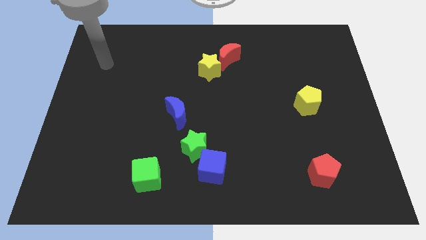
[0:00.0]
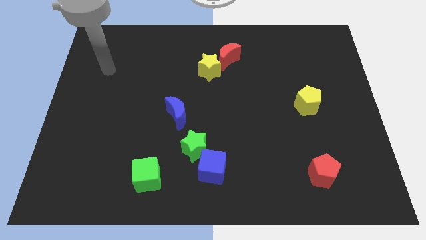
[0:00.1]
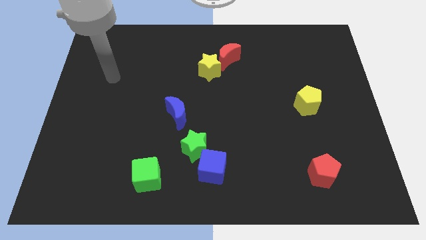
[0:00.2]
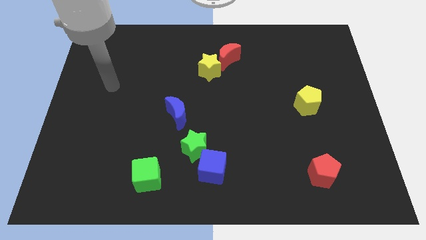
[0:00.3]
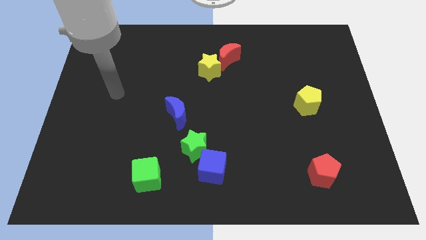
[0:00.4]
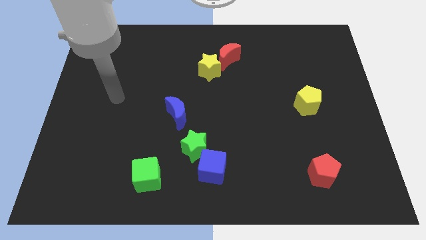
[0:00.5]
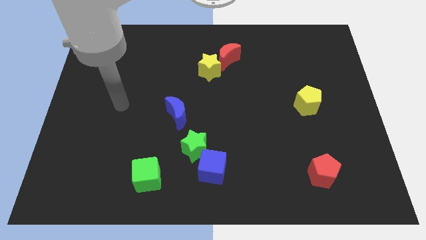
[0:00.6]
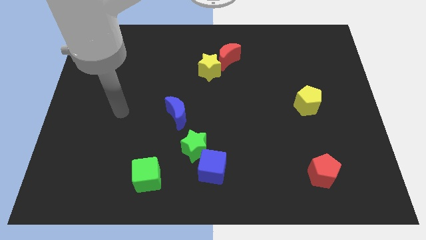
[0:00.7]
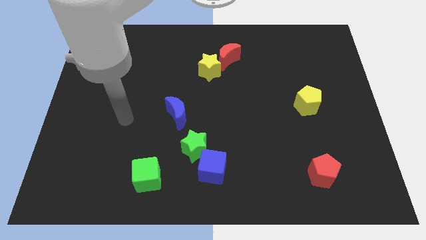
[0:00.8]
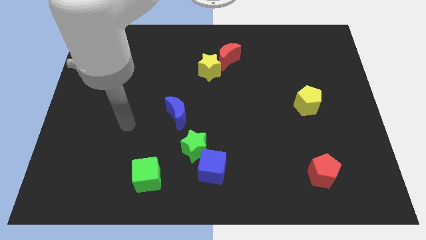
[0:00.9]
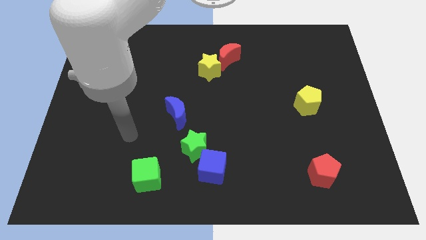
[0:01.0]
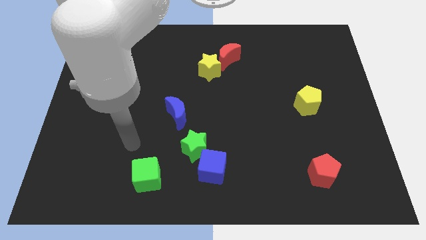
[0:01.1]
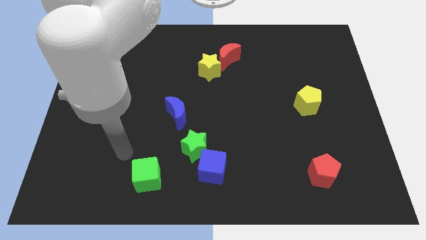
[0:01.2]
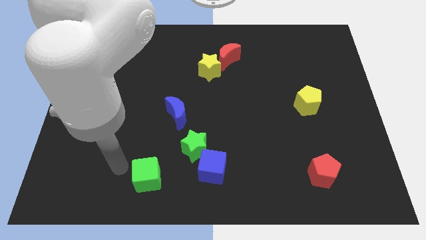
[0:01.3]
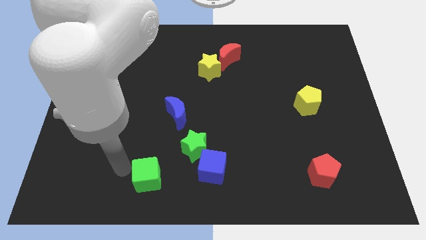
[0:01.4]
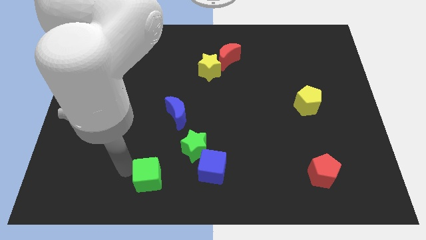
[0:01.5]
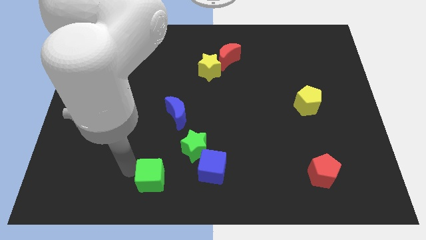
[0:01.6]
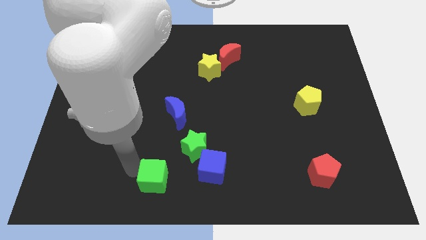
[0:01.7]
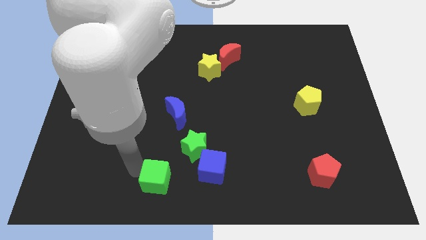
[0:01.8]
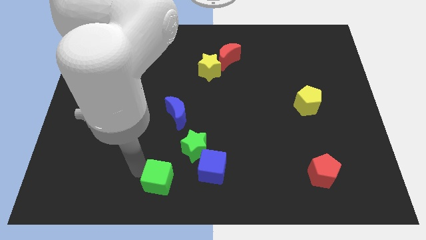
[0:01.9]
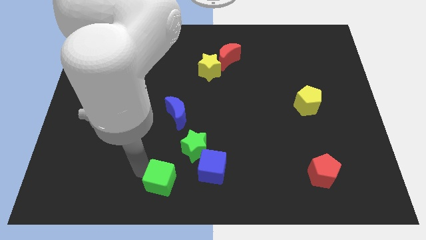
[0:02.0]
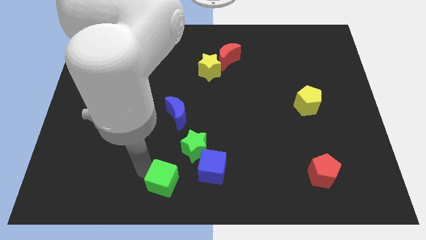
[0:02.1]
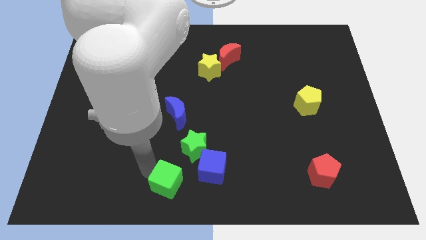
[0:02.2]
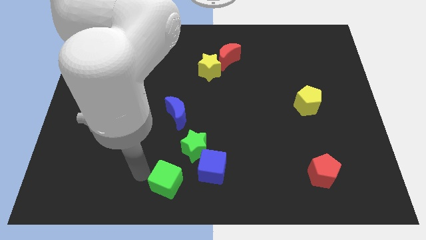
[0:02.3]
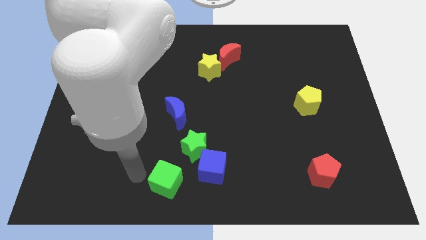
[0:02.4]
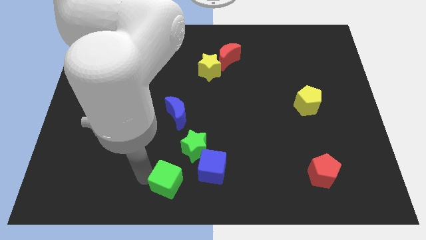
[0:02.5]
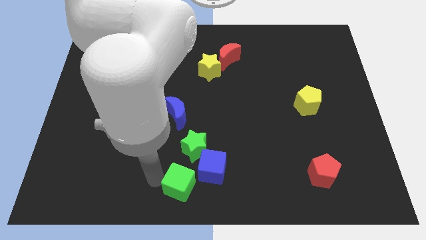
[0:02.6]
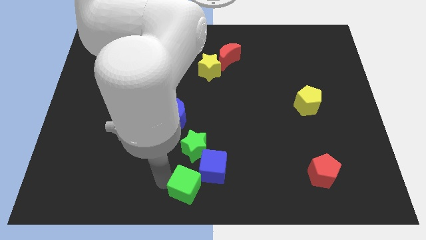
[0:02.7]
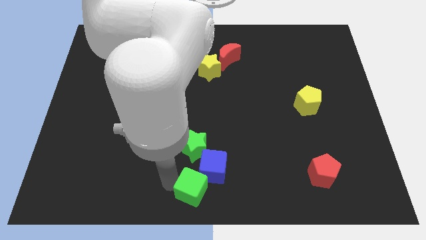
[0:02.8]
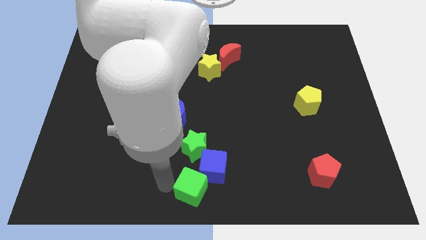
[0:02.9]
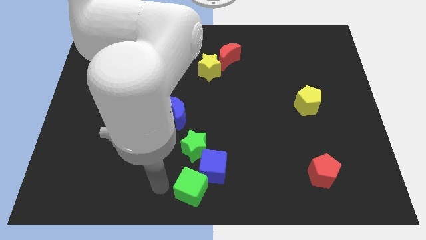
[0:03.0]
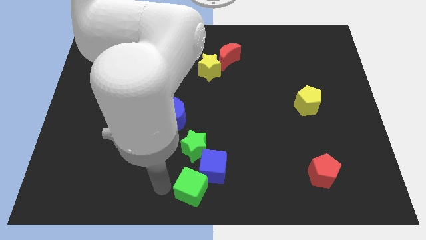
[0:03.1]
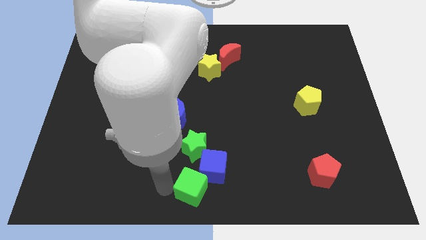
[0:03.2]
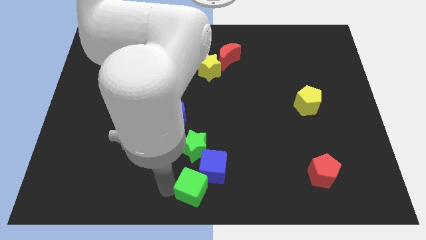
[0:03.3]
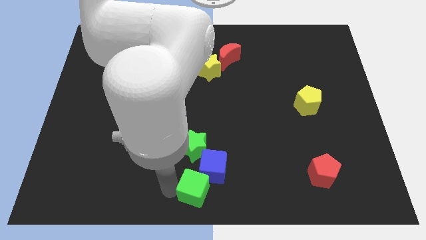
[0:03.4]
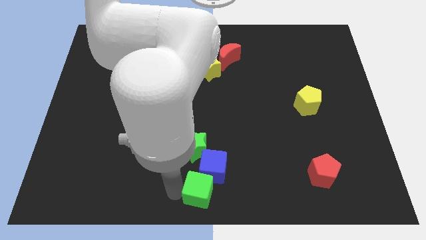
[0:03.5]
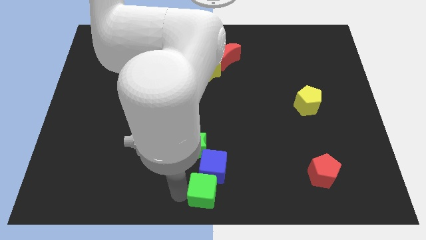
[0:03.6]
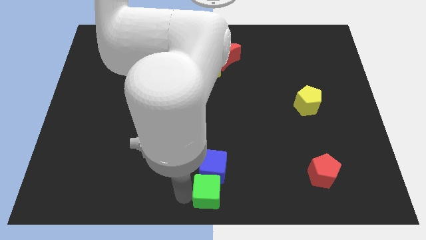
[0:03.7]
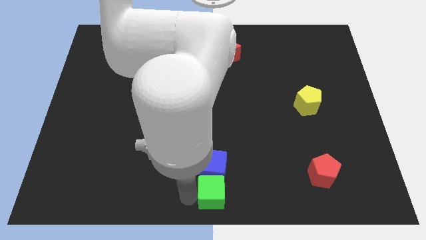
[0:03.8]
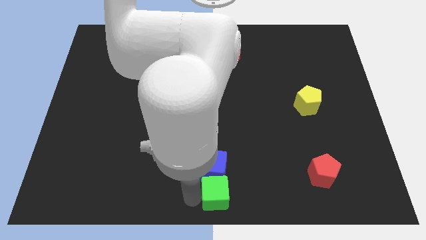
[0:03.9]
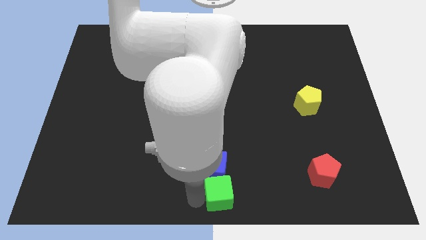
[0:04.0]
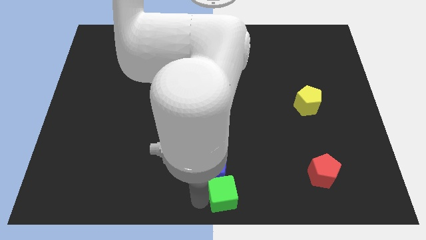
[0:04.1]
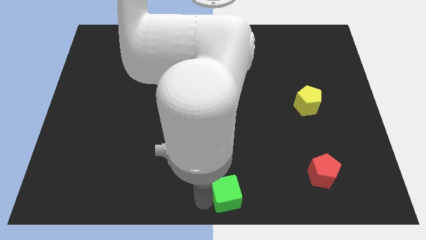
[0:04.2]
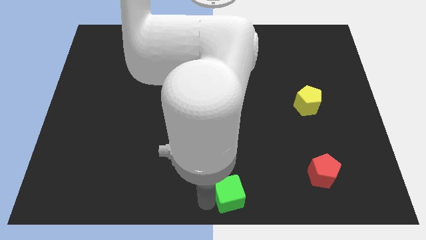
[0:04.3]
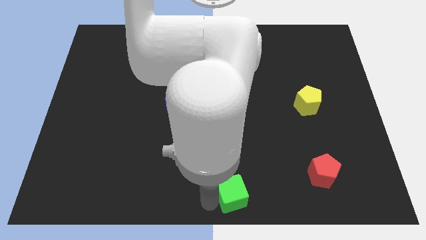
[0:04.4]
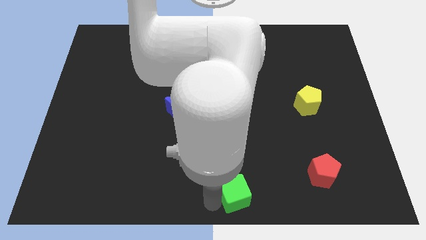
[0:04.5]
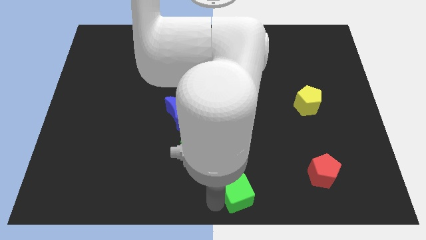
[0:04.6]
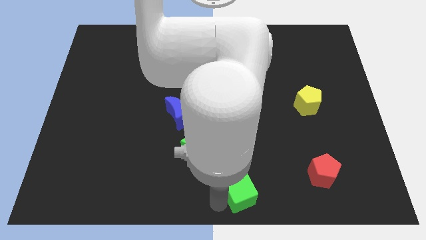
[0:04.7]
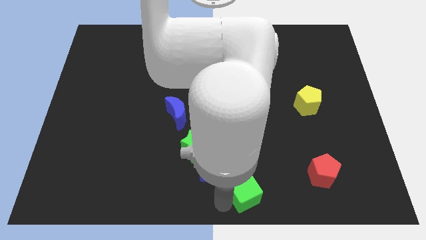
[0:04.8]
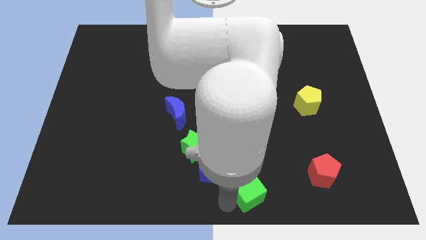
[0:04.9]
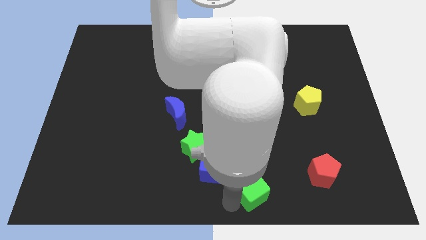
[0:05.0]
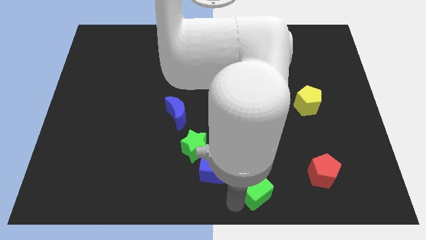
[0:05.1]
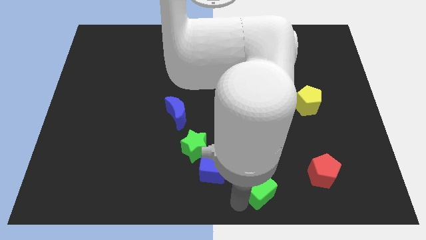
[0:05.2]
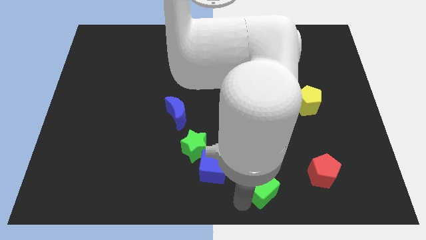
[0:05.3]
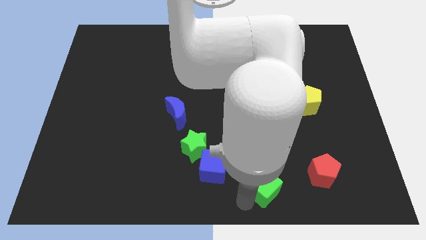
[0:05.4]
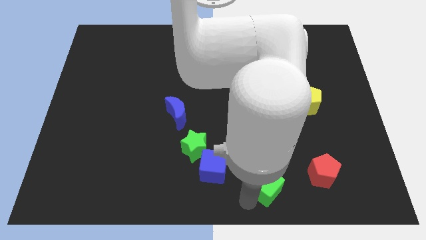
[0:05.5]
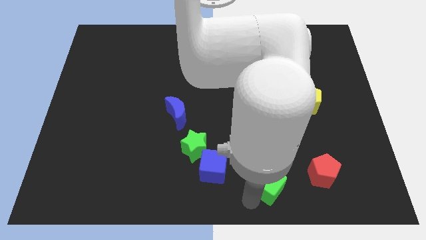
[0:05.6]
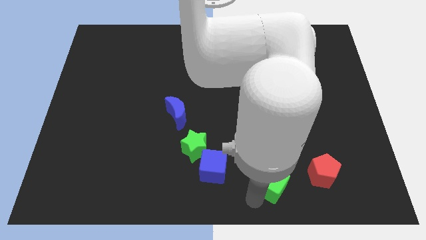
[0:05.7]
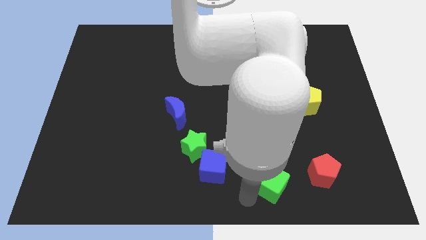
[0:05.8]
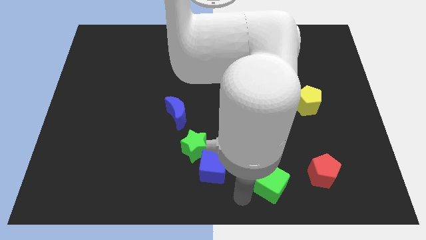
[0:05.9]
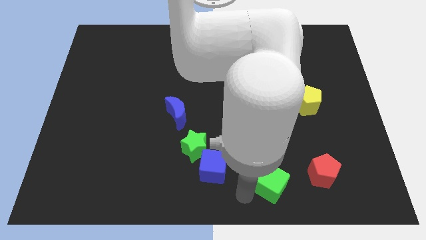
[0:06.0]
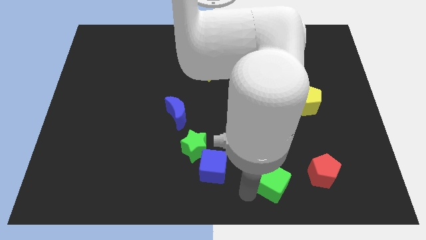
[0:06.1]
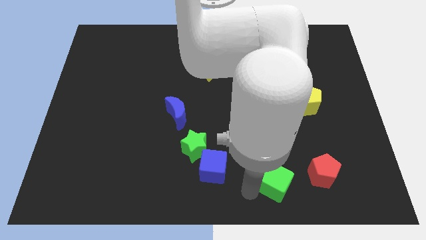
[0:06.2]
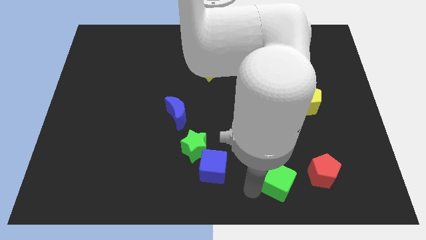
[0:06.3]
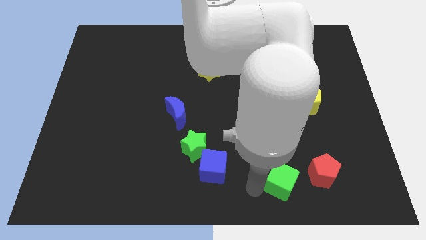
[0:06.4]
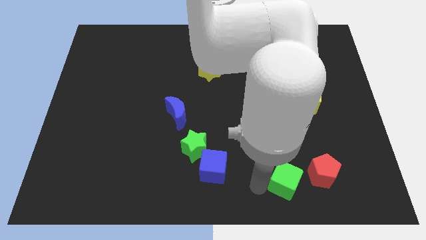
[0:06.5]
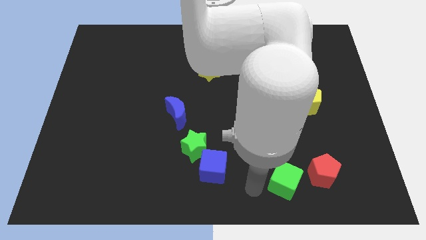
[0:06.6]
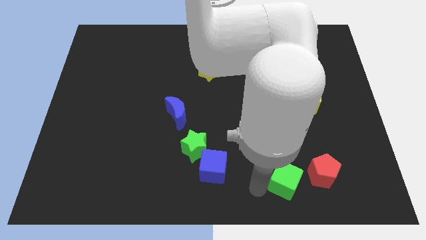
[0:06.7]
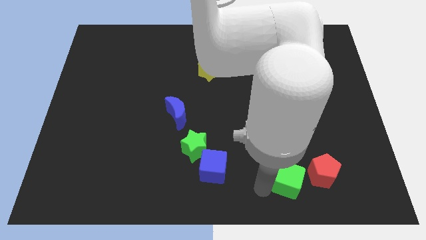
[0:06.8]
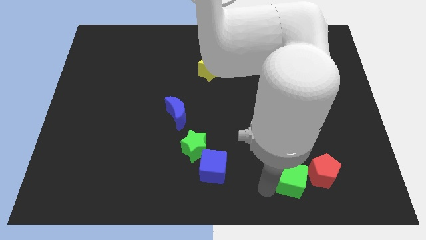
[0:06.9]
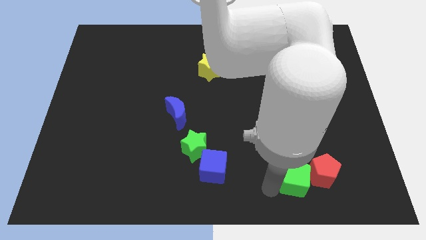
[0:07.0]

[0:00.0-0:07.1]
slide the green cube to the red pentagon
